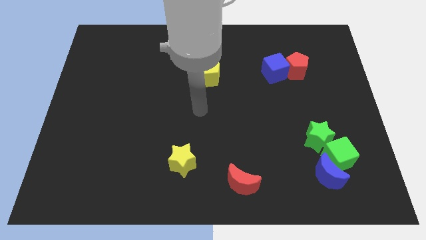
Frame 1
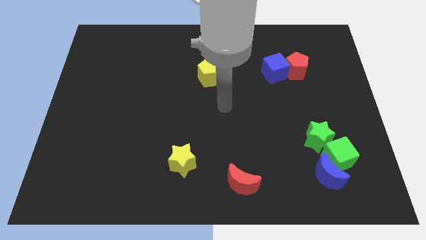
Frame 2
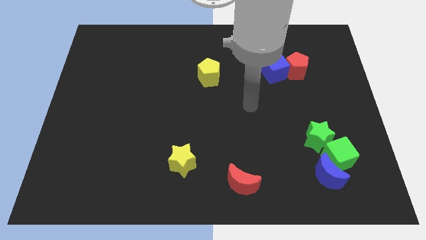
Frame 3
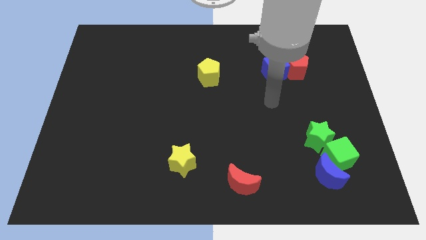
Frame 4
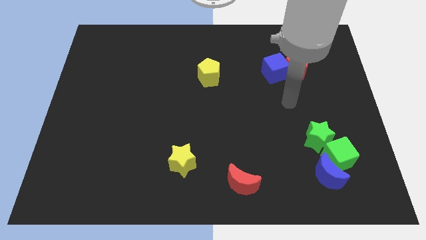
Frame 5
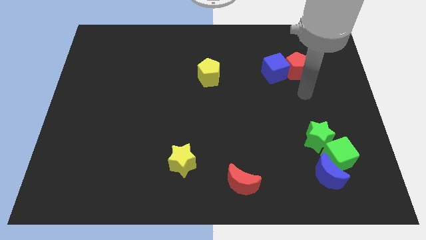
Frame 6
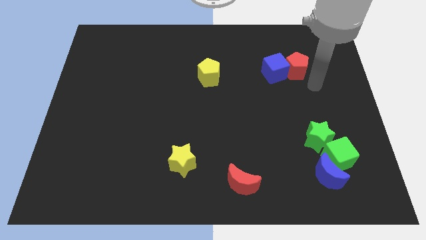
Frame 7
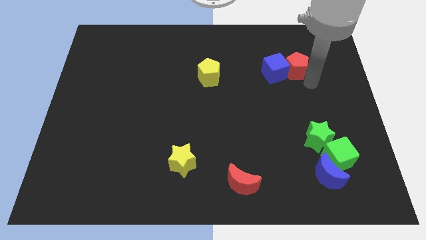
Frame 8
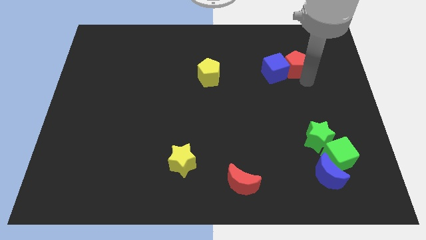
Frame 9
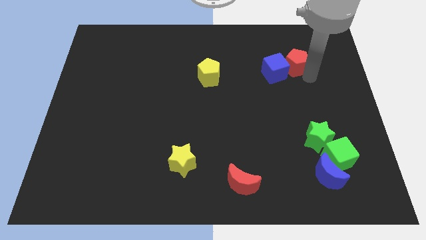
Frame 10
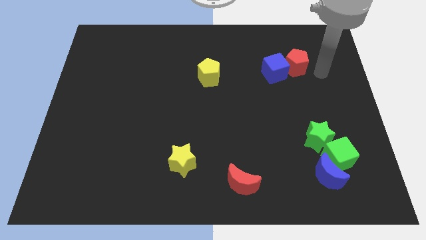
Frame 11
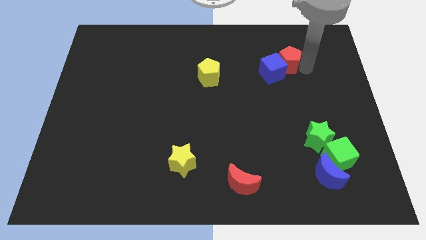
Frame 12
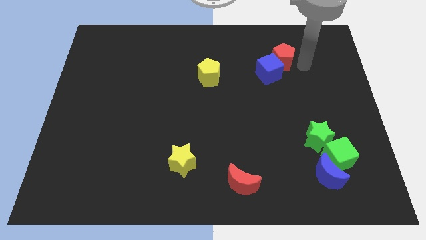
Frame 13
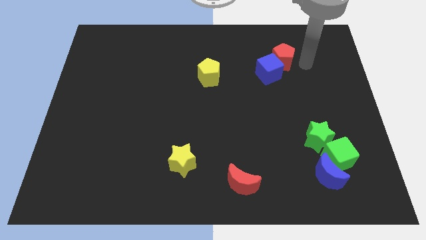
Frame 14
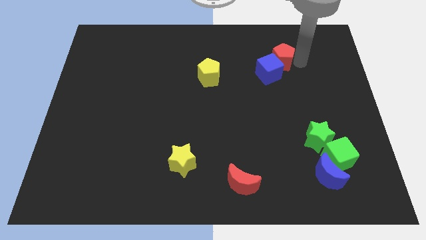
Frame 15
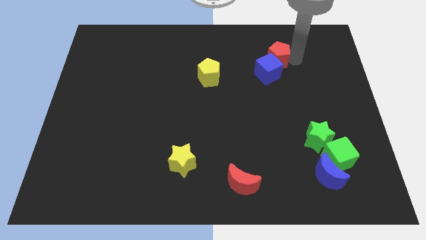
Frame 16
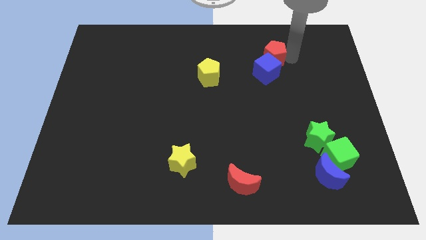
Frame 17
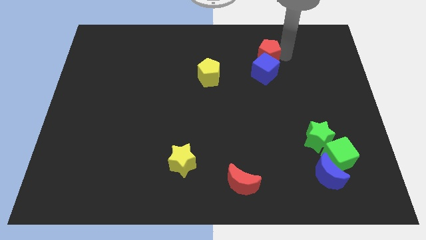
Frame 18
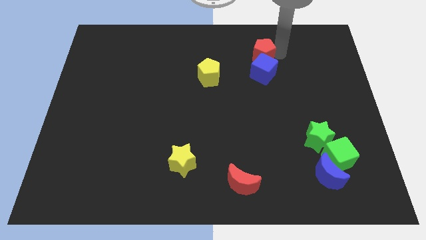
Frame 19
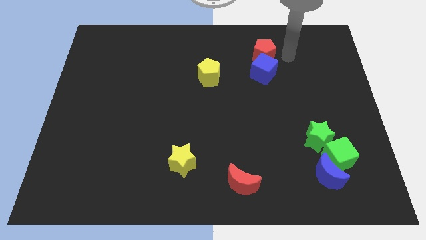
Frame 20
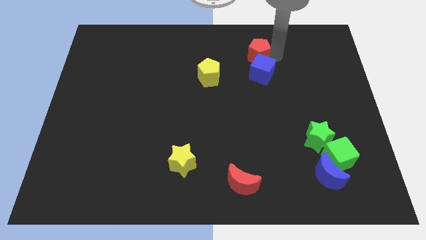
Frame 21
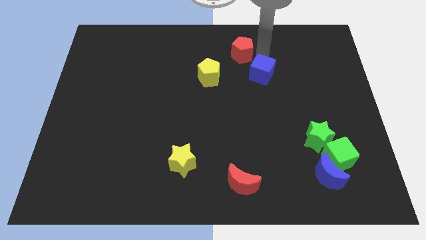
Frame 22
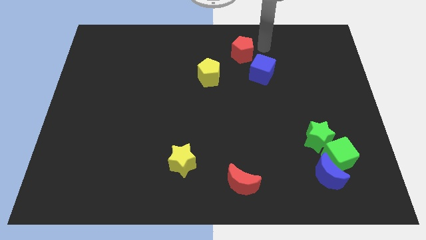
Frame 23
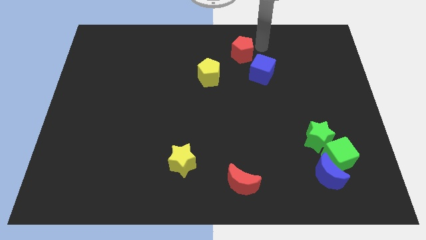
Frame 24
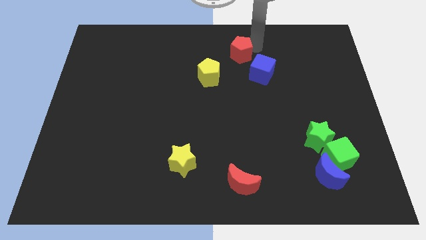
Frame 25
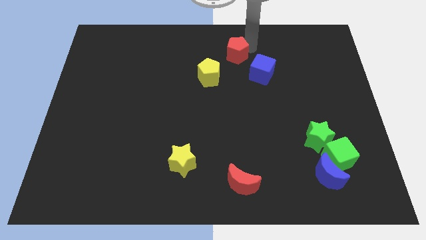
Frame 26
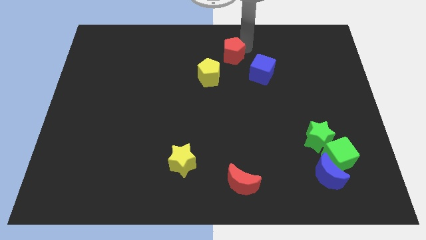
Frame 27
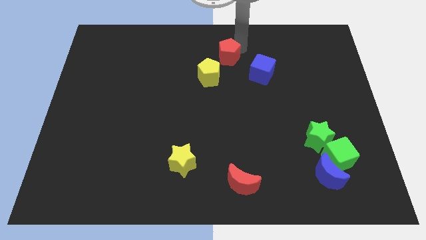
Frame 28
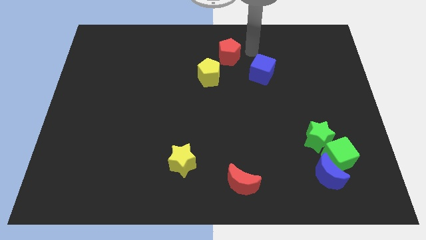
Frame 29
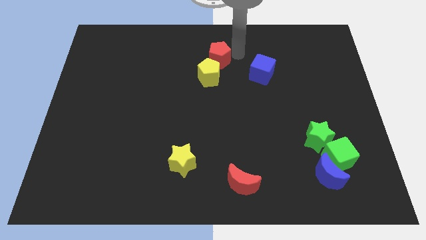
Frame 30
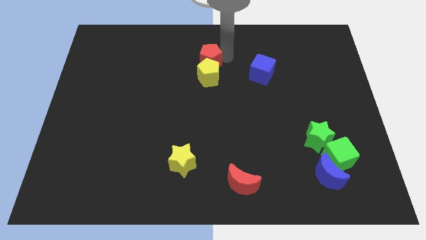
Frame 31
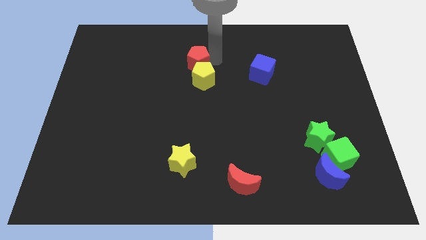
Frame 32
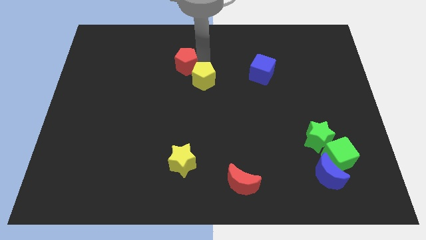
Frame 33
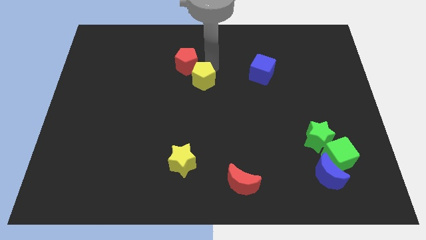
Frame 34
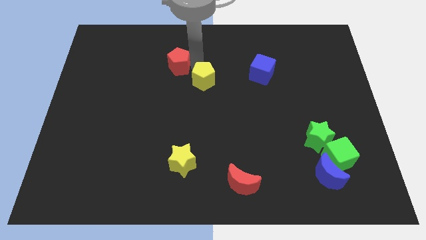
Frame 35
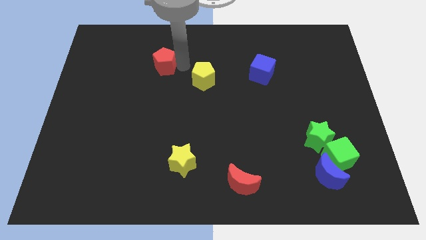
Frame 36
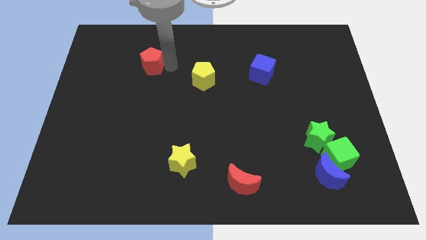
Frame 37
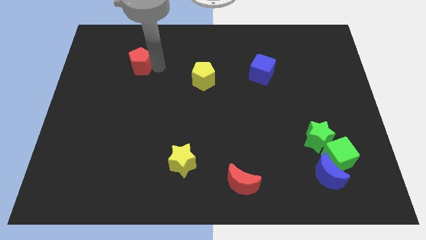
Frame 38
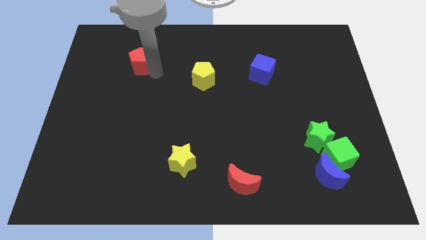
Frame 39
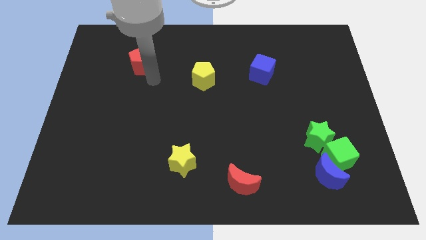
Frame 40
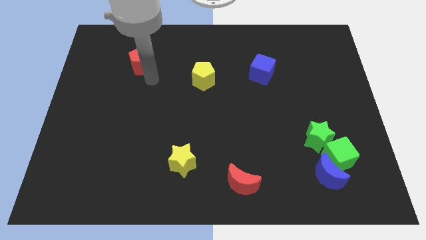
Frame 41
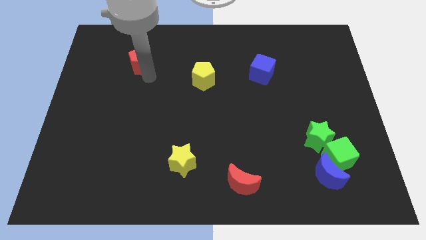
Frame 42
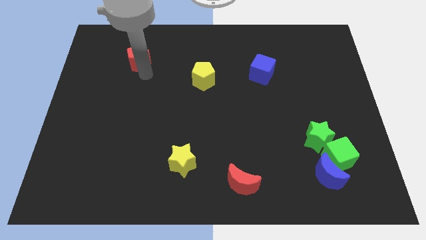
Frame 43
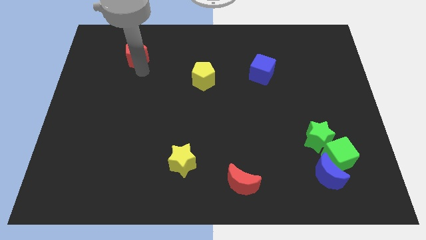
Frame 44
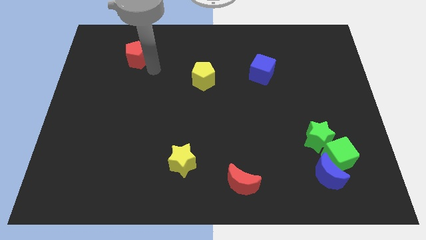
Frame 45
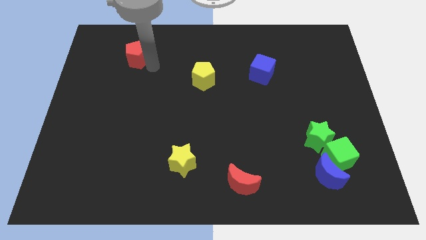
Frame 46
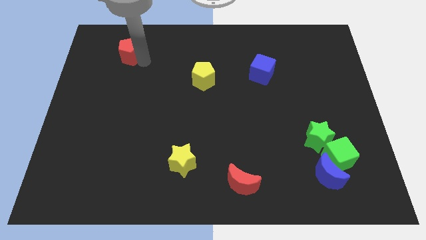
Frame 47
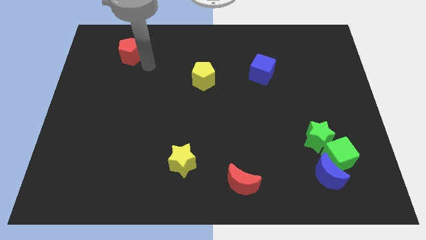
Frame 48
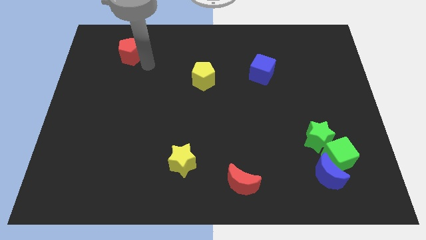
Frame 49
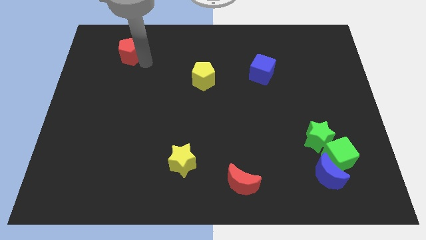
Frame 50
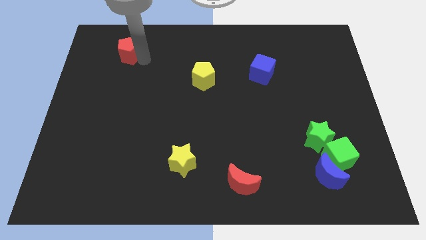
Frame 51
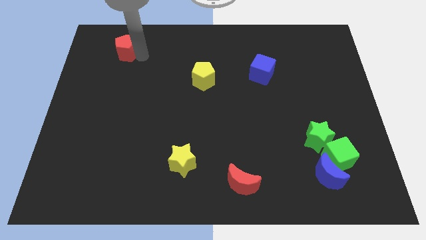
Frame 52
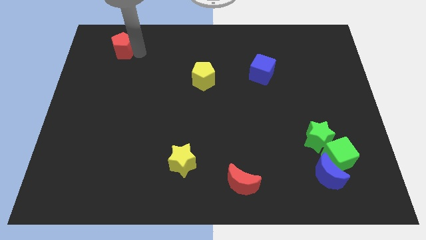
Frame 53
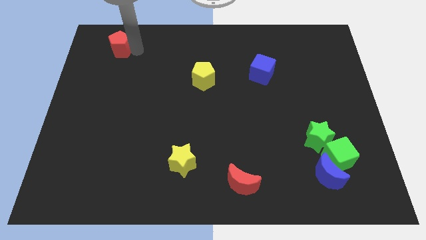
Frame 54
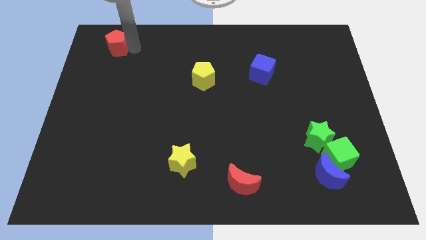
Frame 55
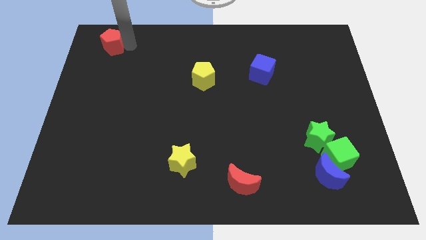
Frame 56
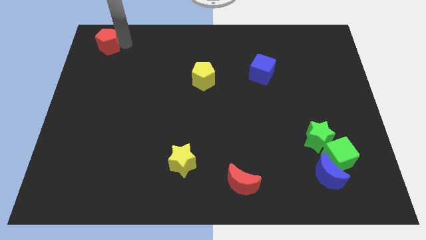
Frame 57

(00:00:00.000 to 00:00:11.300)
move the red pentagon to the top left of the board

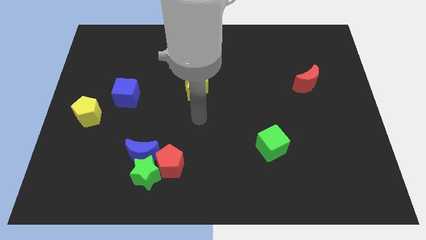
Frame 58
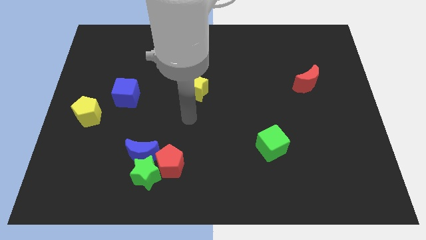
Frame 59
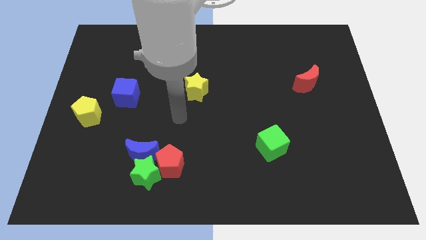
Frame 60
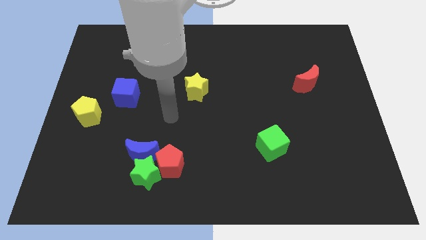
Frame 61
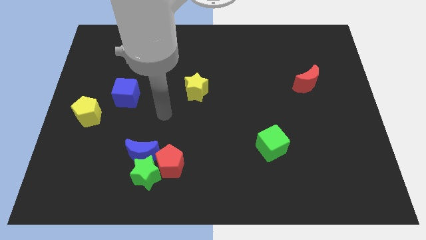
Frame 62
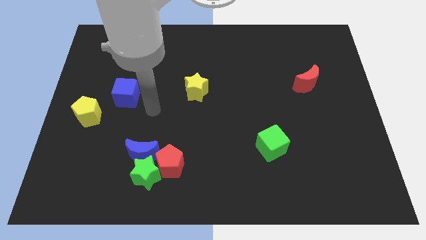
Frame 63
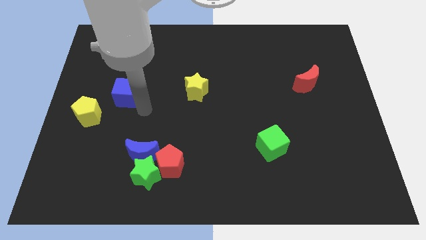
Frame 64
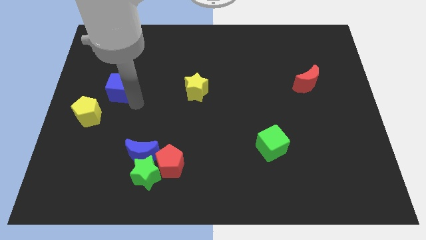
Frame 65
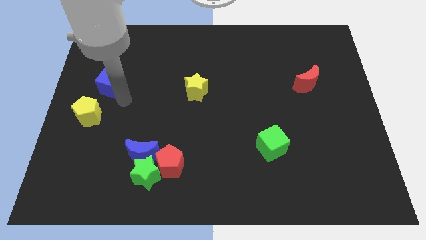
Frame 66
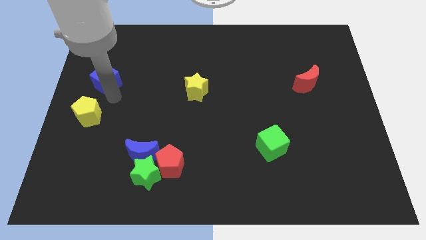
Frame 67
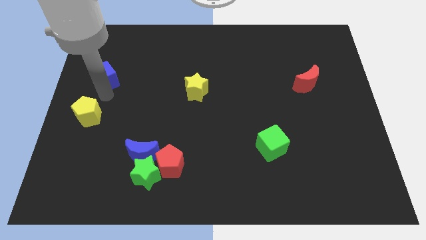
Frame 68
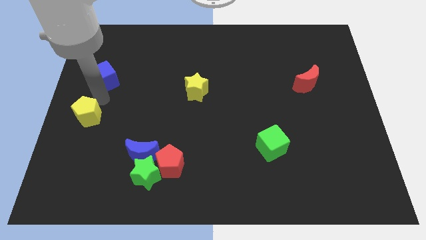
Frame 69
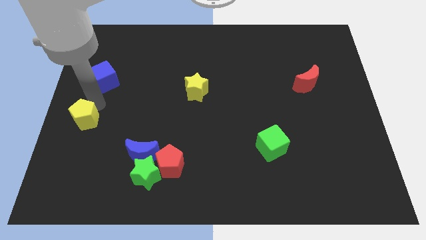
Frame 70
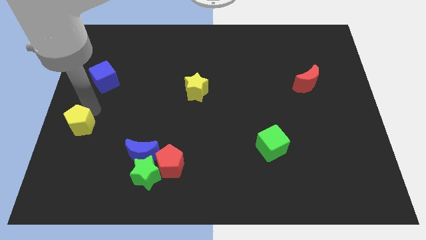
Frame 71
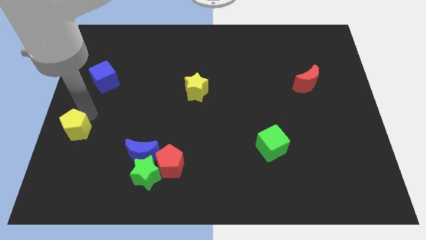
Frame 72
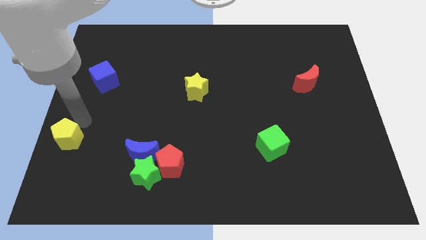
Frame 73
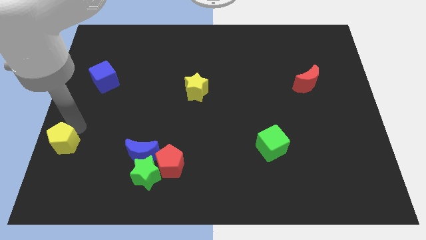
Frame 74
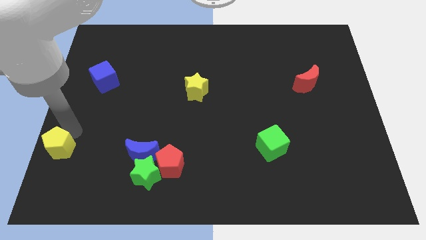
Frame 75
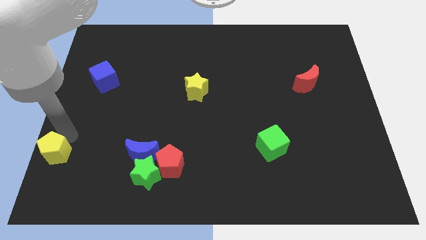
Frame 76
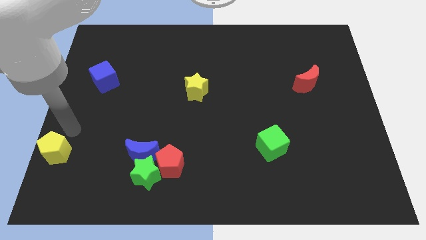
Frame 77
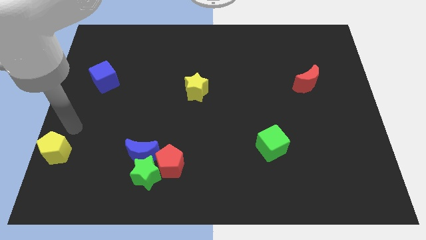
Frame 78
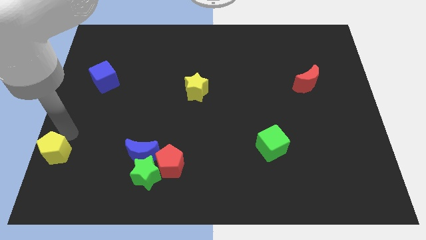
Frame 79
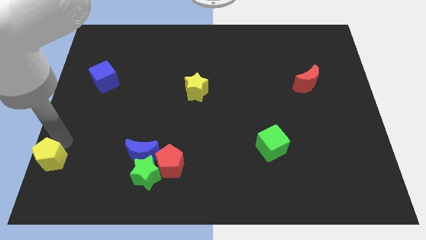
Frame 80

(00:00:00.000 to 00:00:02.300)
slide the yellow pentagon to the bottom left of the board

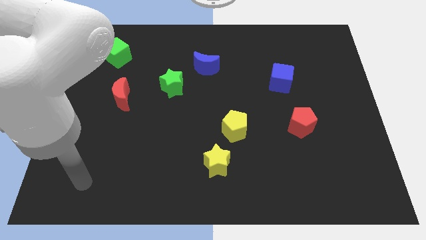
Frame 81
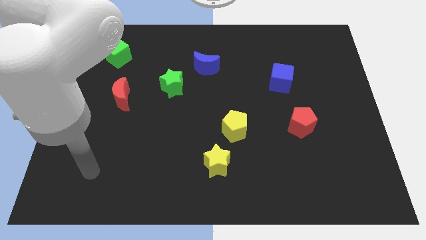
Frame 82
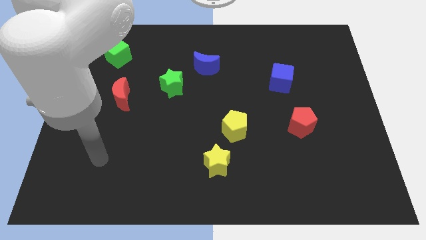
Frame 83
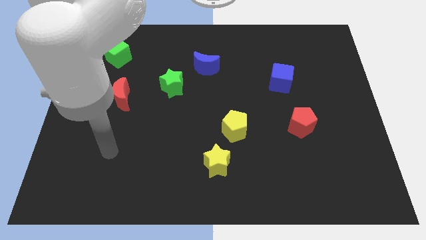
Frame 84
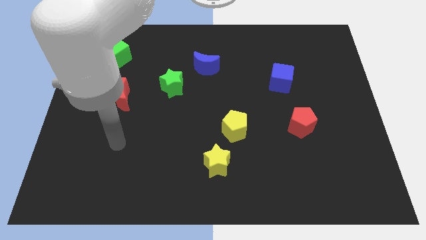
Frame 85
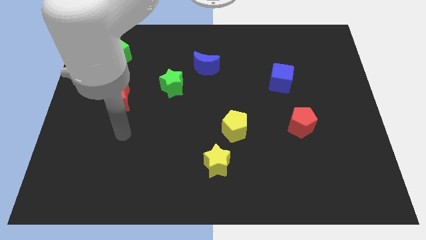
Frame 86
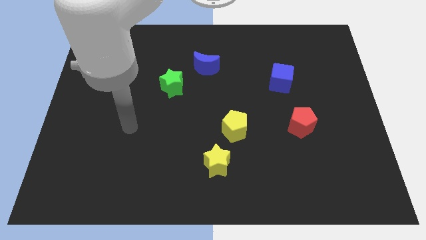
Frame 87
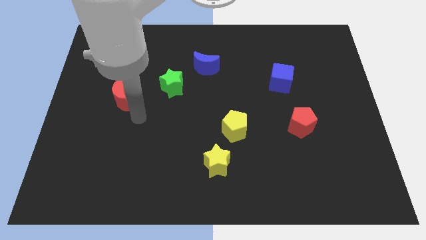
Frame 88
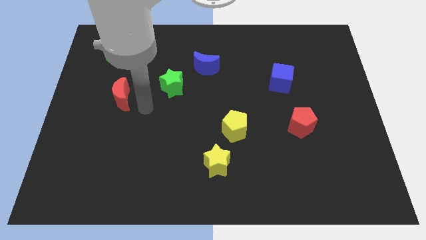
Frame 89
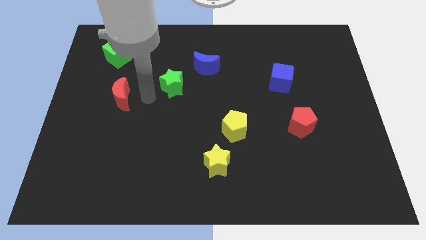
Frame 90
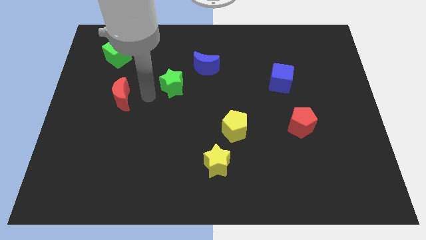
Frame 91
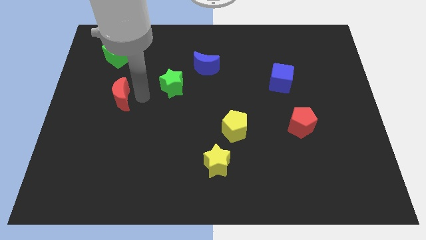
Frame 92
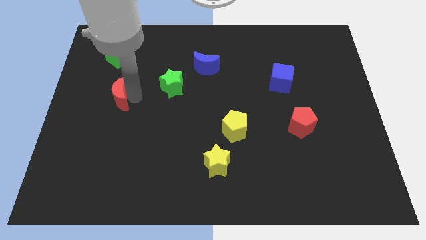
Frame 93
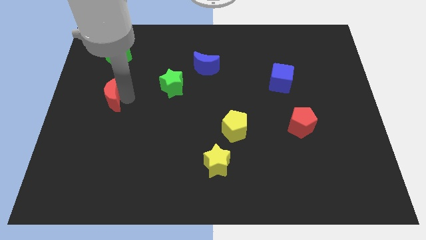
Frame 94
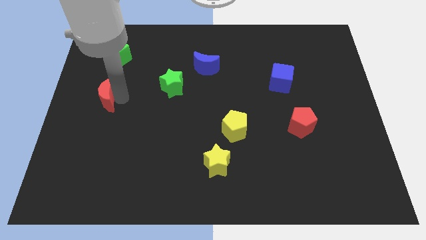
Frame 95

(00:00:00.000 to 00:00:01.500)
push the red moon to the left side
